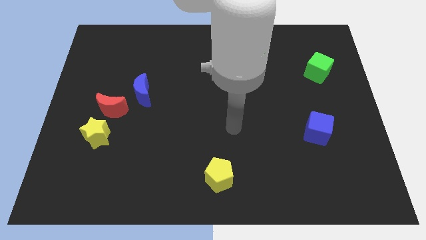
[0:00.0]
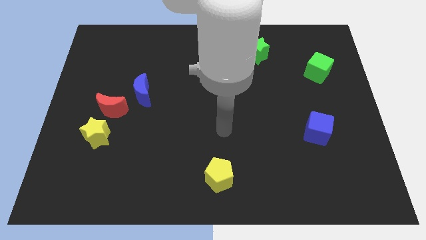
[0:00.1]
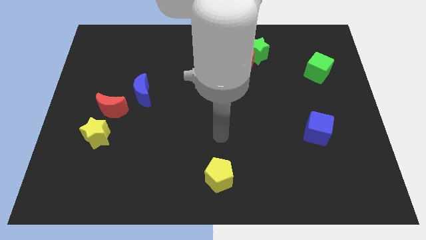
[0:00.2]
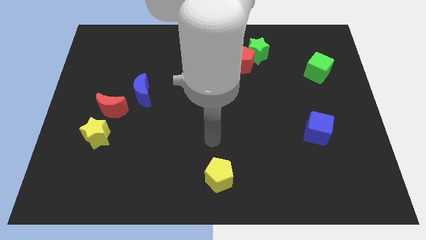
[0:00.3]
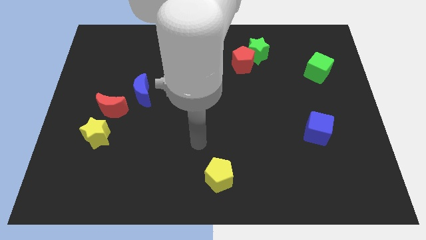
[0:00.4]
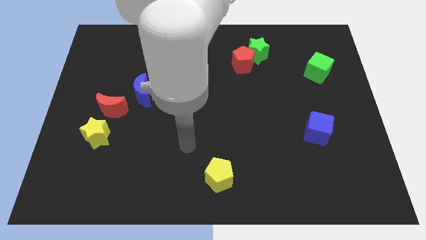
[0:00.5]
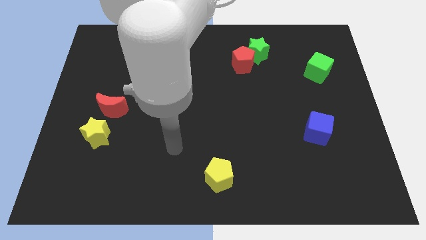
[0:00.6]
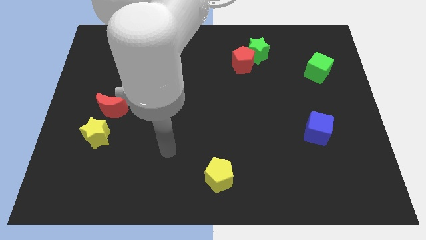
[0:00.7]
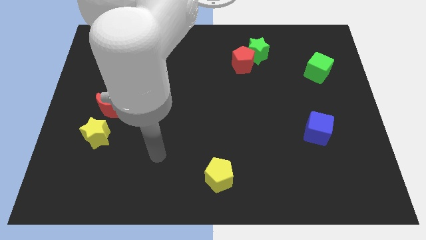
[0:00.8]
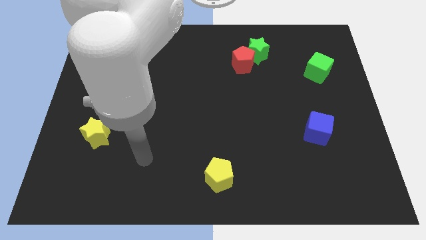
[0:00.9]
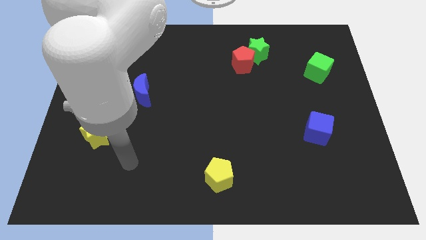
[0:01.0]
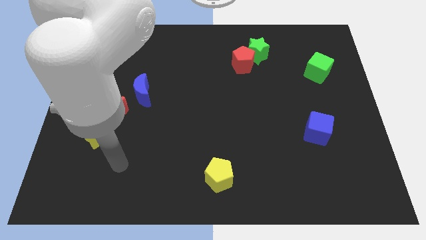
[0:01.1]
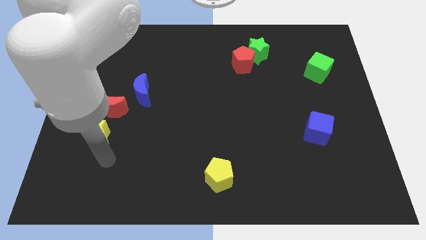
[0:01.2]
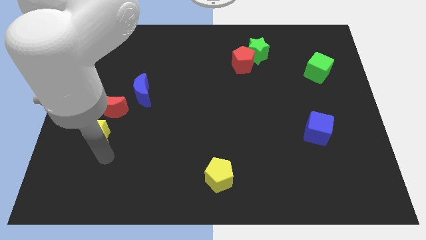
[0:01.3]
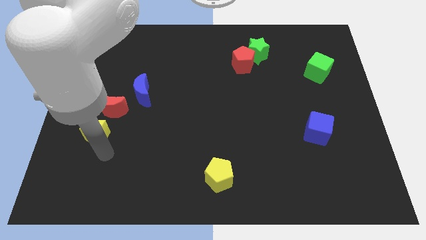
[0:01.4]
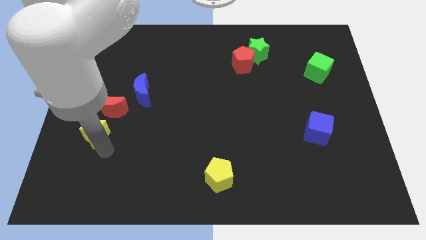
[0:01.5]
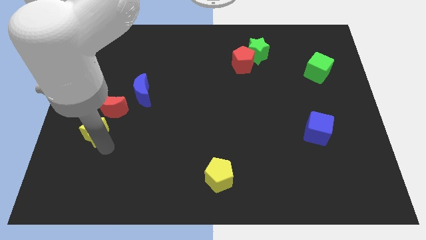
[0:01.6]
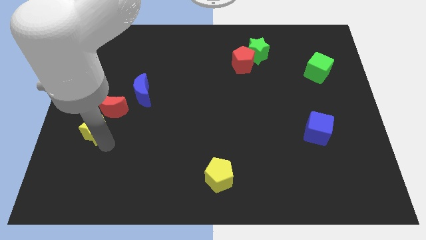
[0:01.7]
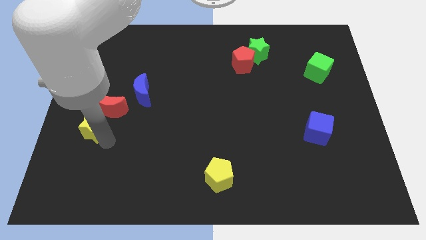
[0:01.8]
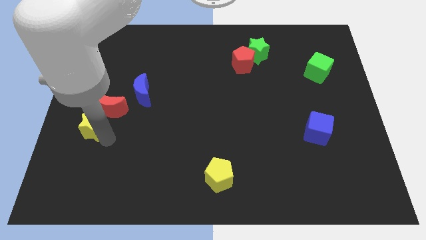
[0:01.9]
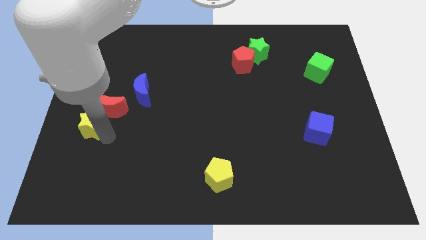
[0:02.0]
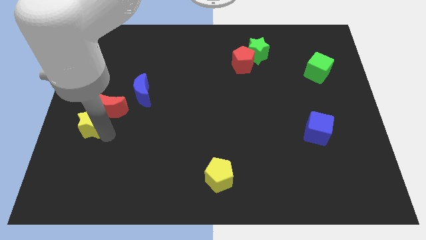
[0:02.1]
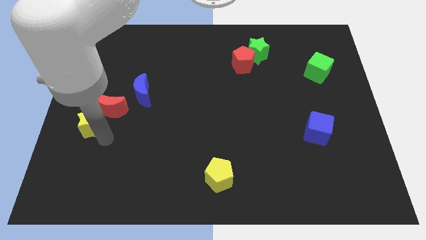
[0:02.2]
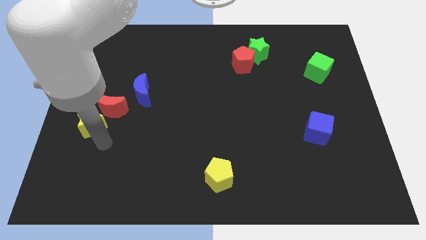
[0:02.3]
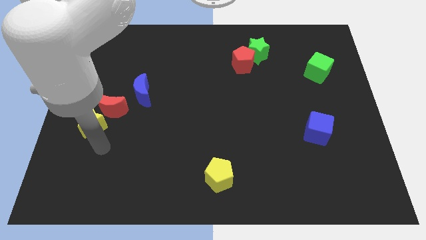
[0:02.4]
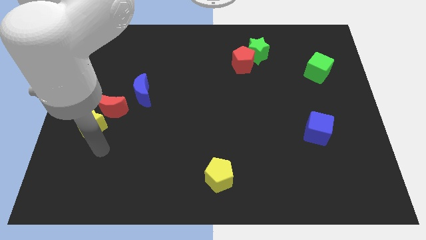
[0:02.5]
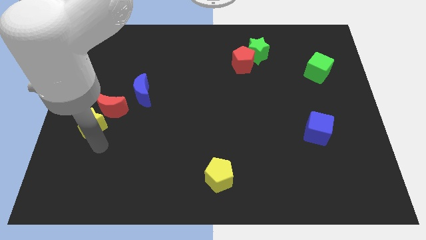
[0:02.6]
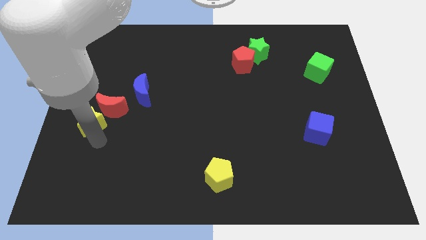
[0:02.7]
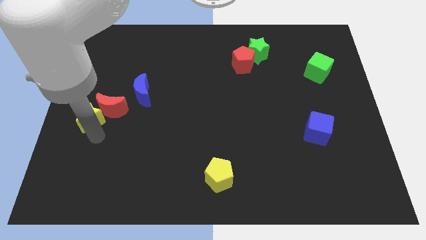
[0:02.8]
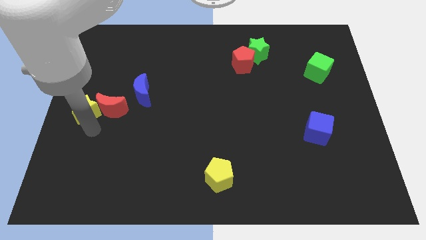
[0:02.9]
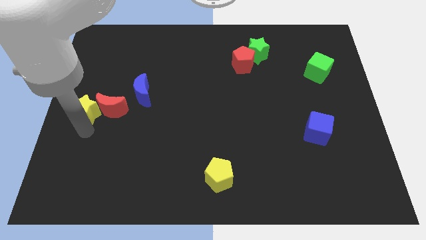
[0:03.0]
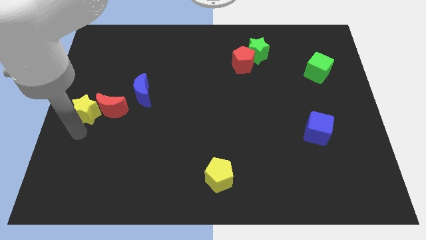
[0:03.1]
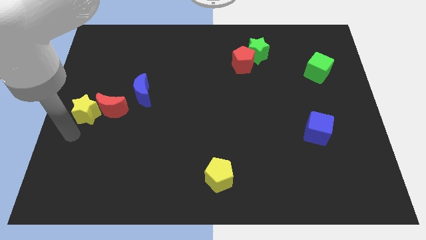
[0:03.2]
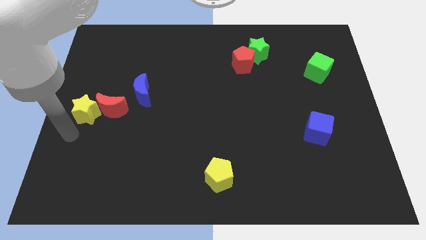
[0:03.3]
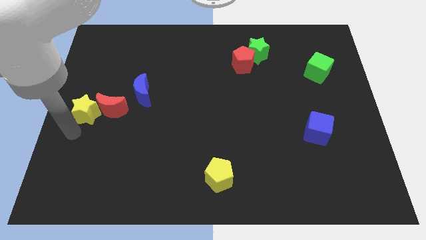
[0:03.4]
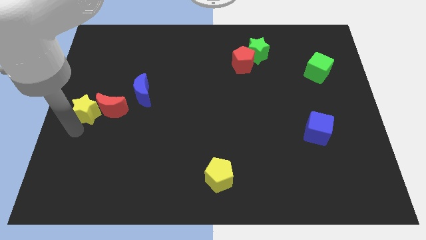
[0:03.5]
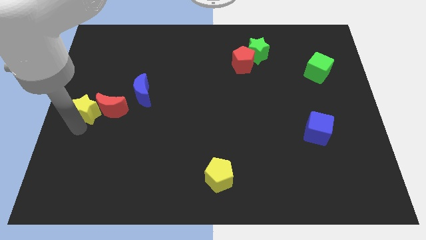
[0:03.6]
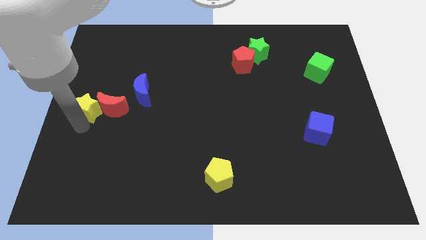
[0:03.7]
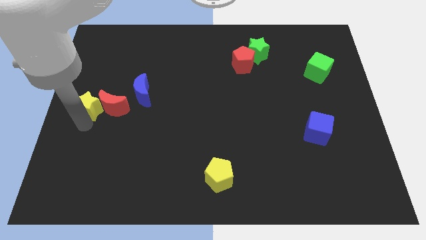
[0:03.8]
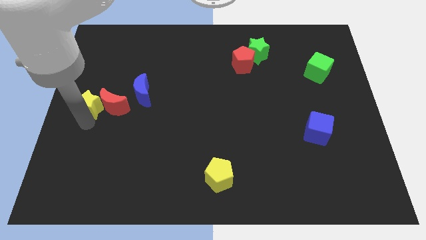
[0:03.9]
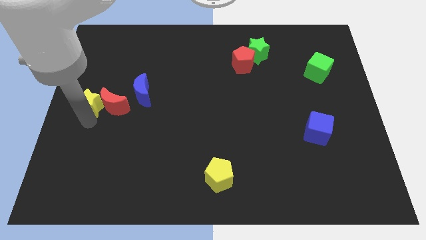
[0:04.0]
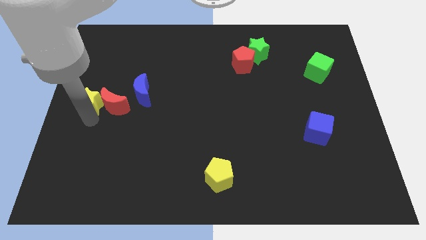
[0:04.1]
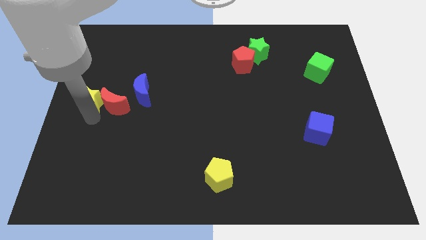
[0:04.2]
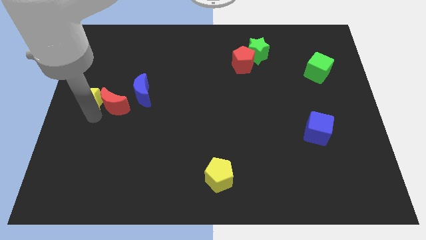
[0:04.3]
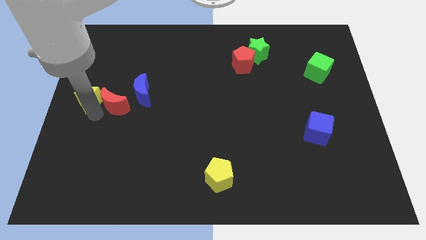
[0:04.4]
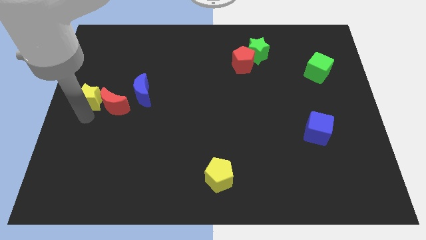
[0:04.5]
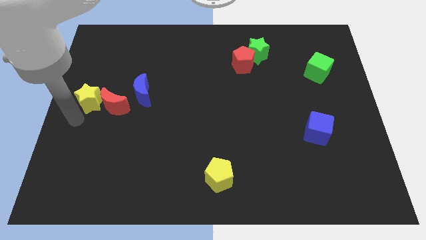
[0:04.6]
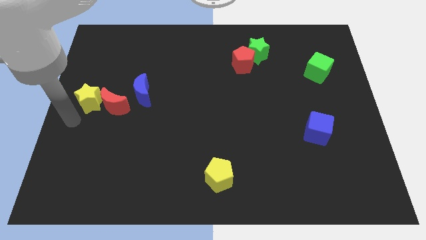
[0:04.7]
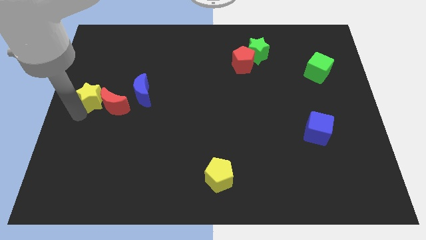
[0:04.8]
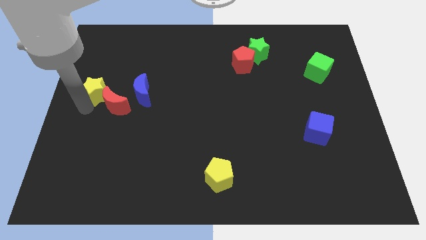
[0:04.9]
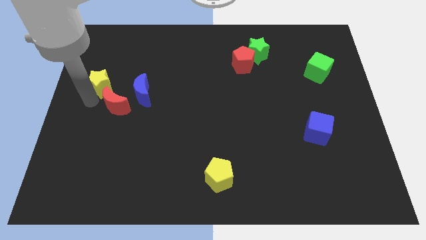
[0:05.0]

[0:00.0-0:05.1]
put the yellow star above the red moon

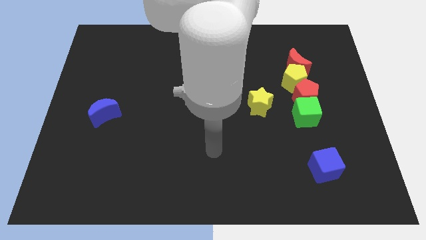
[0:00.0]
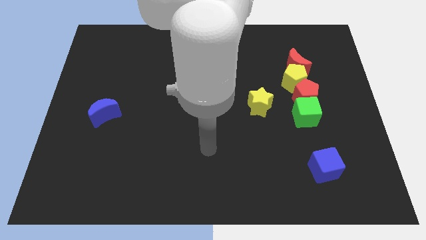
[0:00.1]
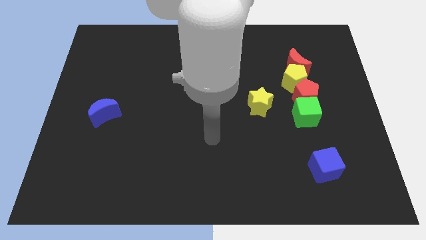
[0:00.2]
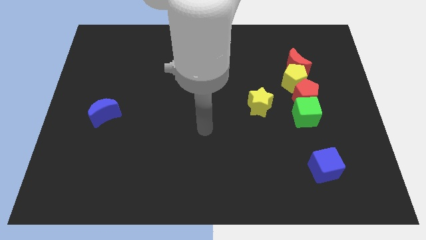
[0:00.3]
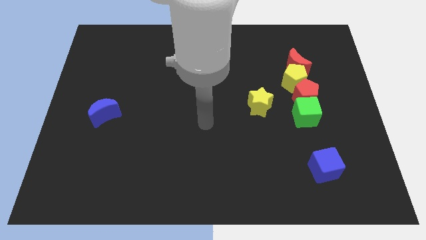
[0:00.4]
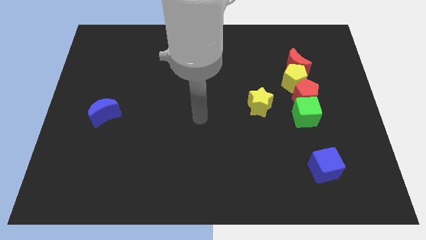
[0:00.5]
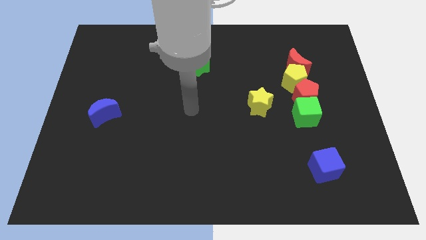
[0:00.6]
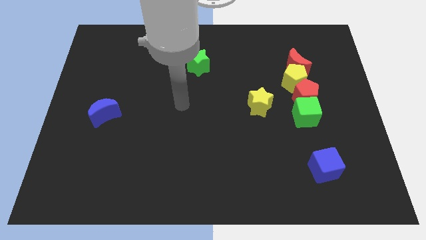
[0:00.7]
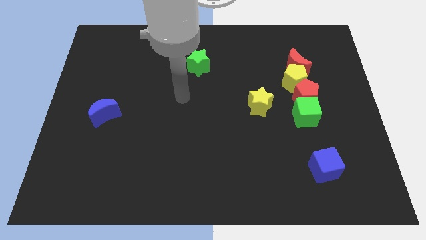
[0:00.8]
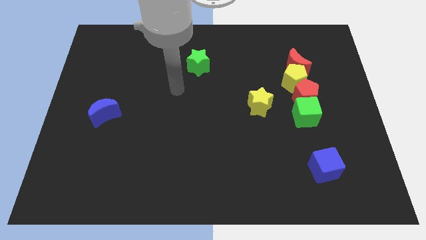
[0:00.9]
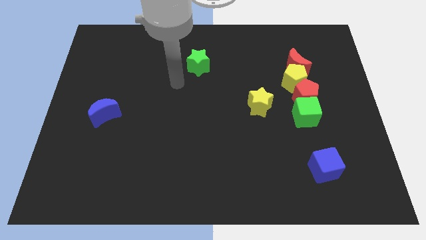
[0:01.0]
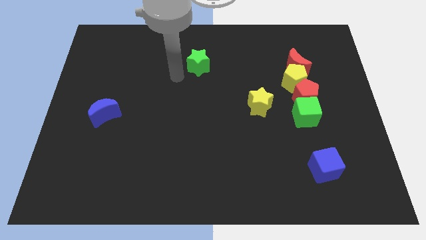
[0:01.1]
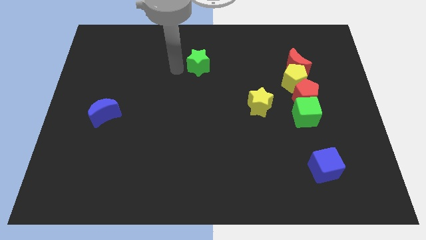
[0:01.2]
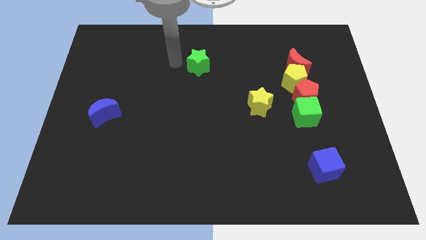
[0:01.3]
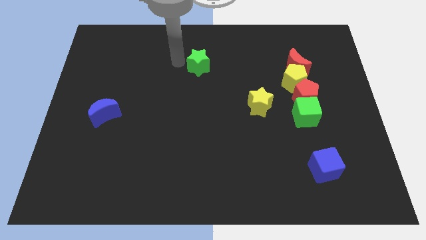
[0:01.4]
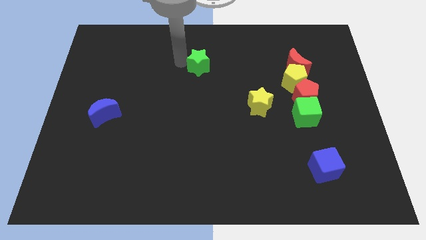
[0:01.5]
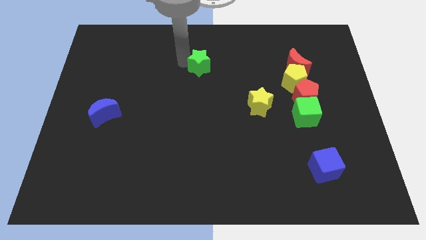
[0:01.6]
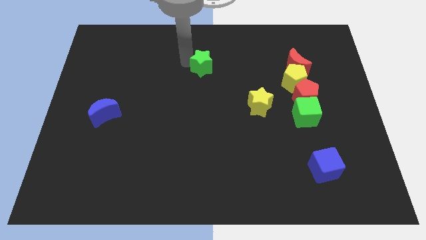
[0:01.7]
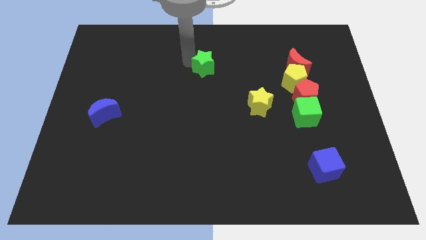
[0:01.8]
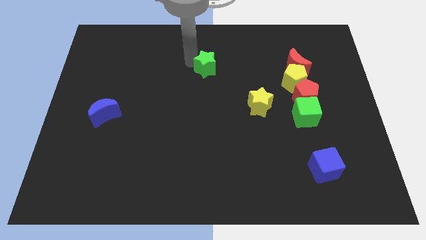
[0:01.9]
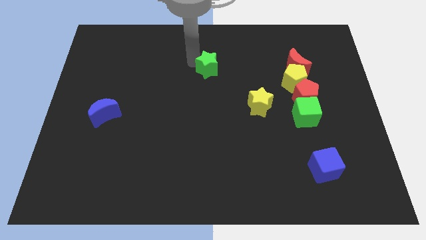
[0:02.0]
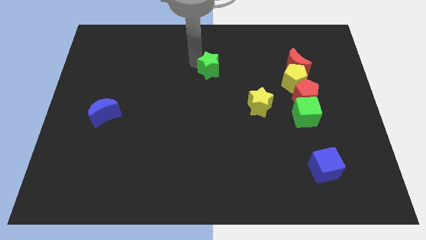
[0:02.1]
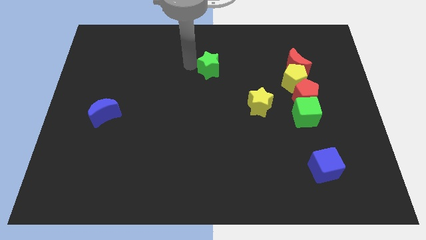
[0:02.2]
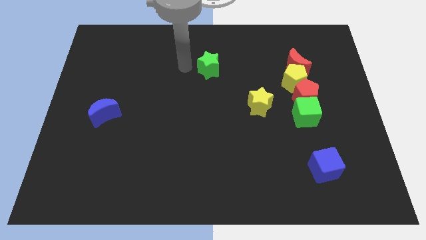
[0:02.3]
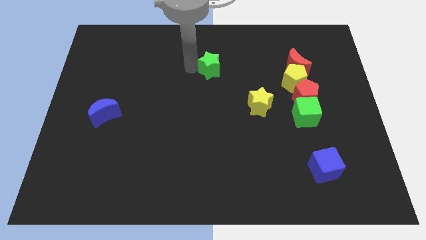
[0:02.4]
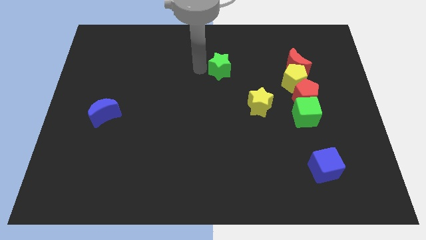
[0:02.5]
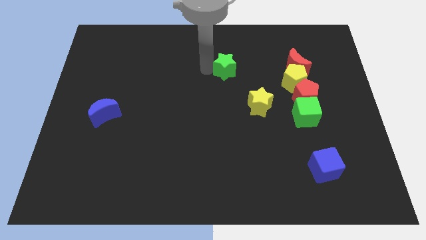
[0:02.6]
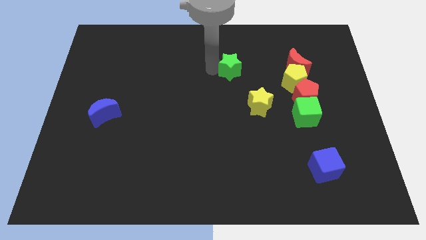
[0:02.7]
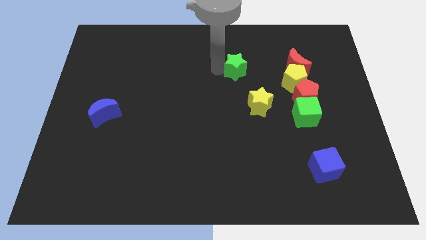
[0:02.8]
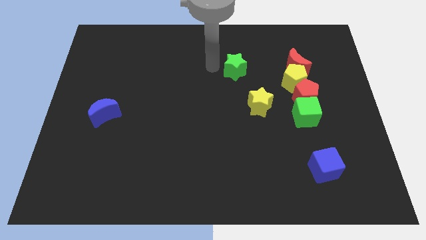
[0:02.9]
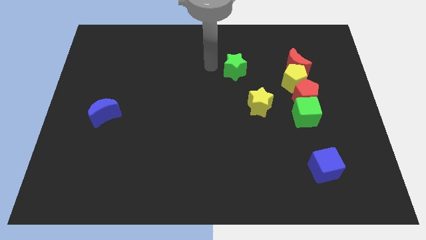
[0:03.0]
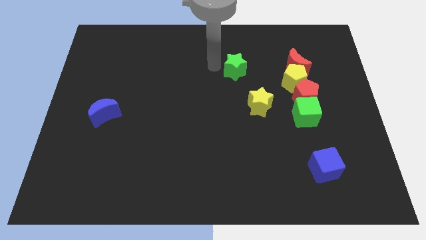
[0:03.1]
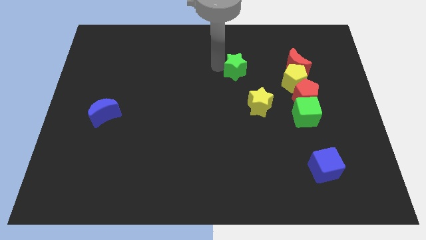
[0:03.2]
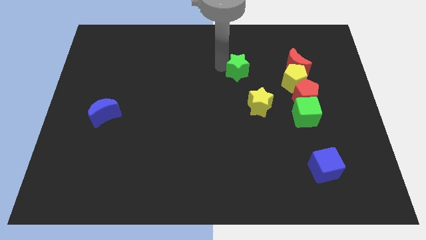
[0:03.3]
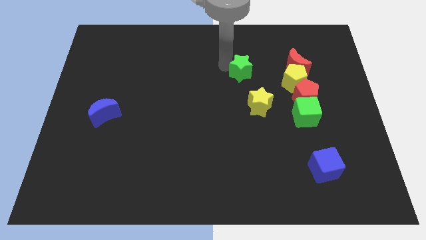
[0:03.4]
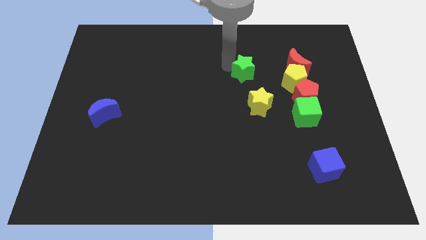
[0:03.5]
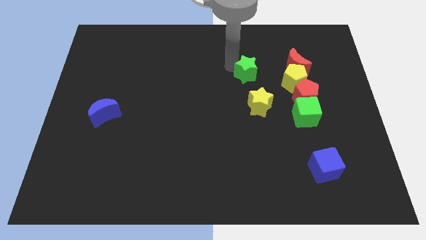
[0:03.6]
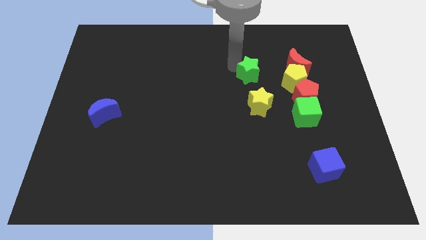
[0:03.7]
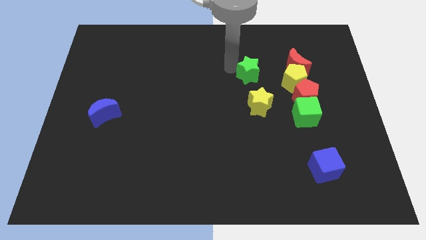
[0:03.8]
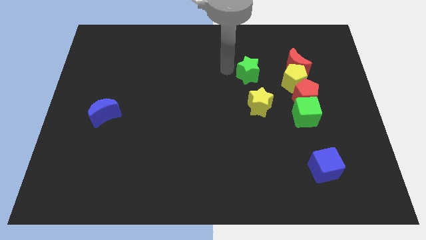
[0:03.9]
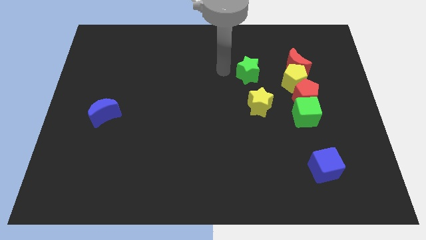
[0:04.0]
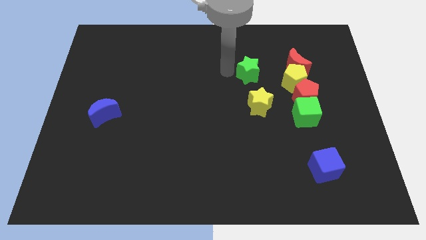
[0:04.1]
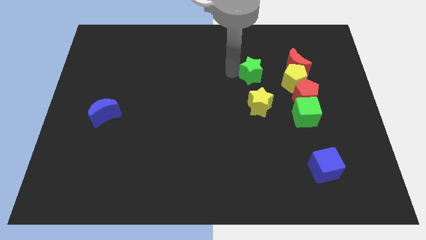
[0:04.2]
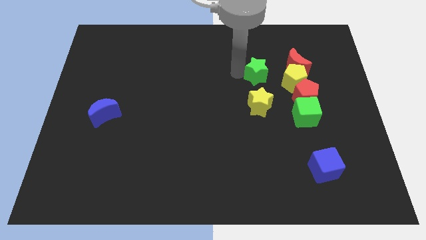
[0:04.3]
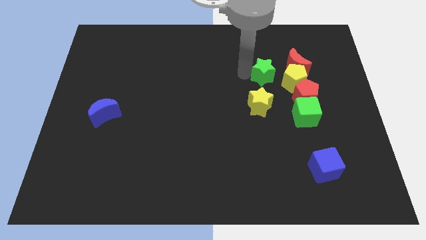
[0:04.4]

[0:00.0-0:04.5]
push the green star diagonally up and to the left of the red pentagon
